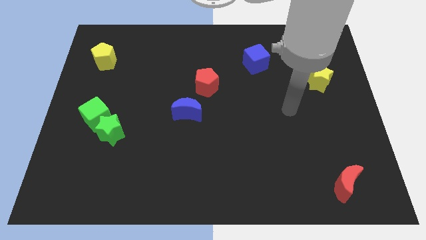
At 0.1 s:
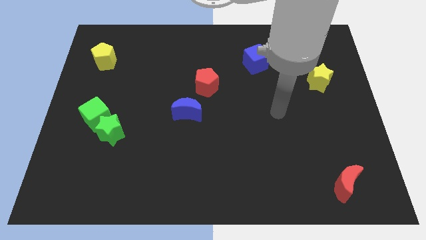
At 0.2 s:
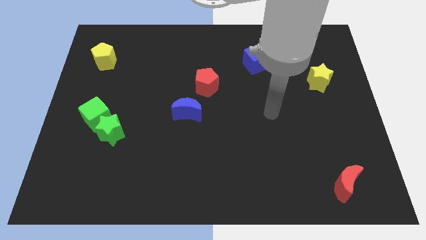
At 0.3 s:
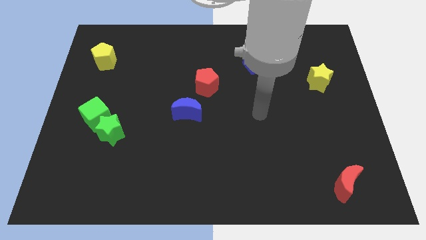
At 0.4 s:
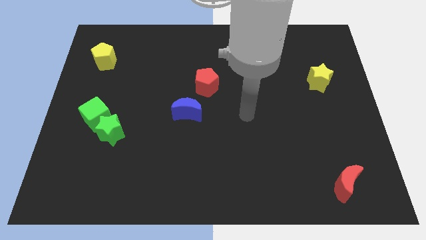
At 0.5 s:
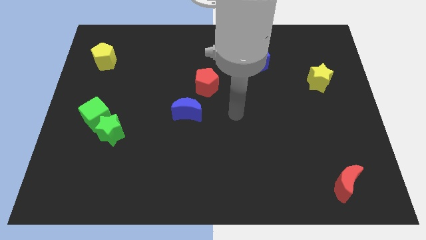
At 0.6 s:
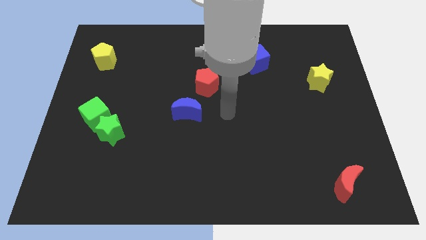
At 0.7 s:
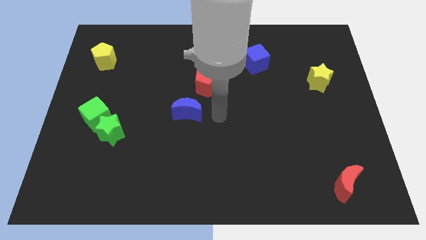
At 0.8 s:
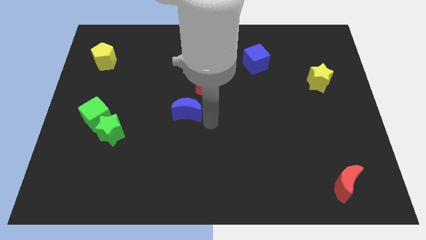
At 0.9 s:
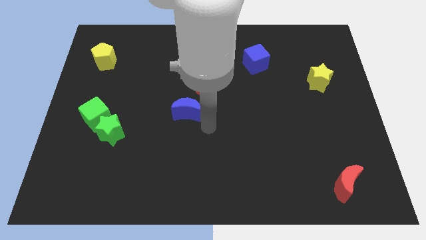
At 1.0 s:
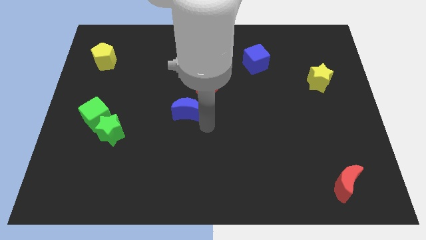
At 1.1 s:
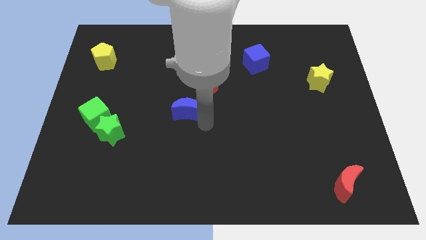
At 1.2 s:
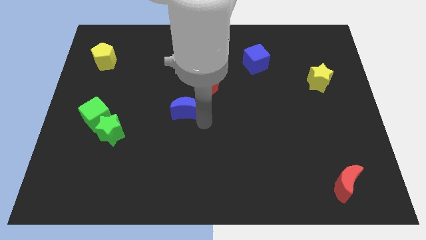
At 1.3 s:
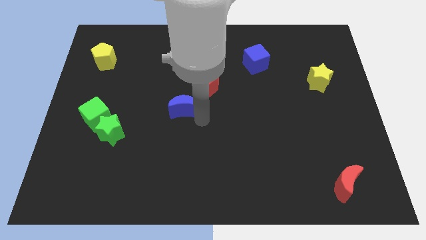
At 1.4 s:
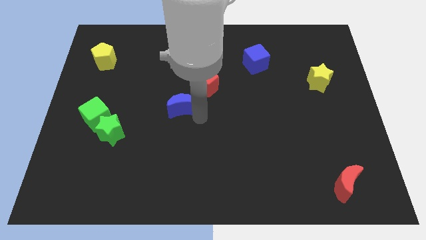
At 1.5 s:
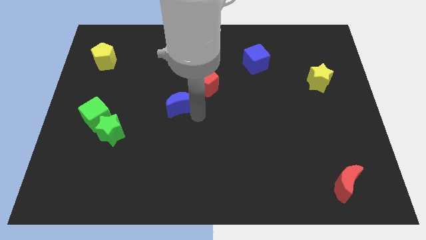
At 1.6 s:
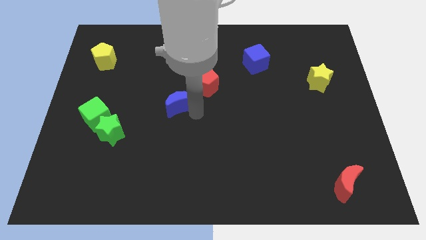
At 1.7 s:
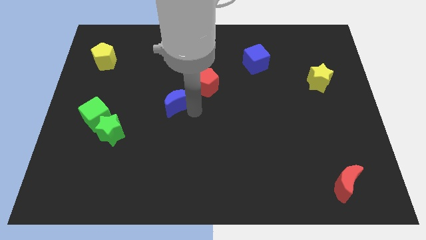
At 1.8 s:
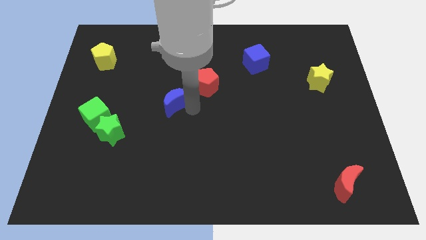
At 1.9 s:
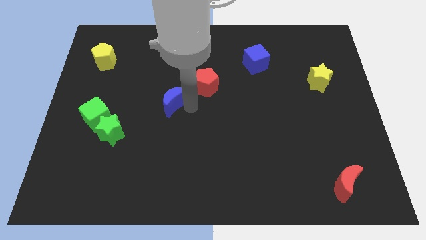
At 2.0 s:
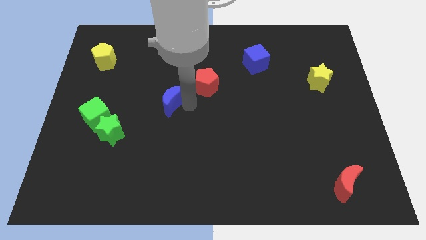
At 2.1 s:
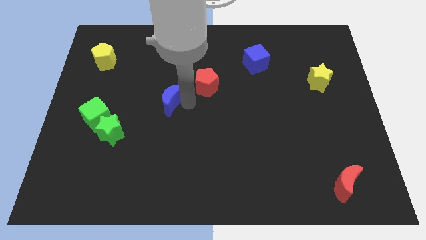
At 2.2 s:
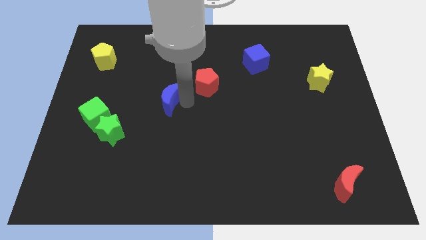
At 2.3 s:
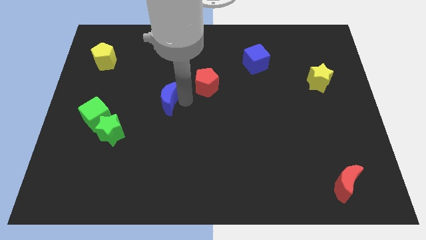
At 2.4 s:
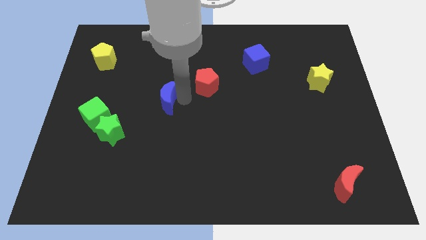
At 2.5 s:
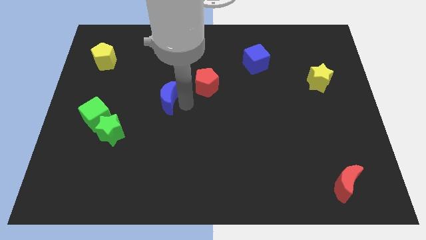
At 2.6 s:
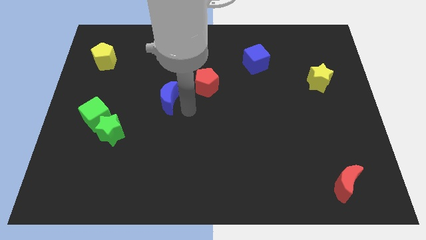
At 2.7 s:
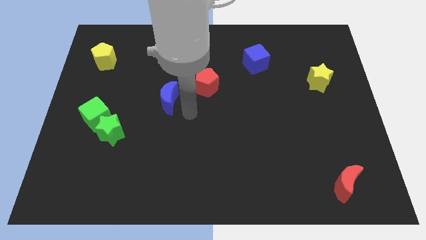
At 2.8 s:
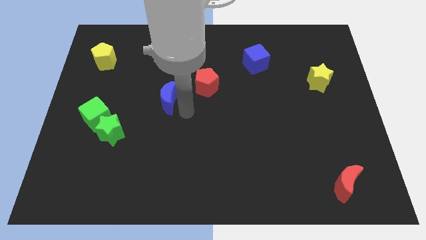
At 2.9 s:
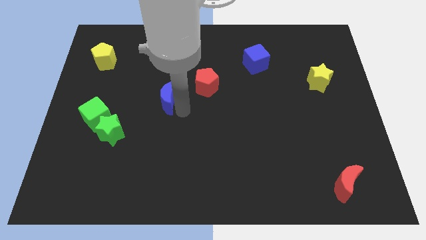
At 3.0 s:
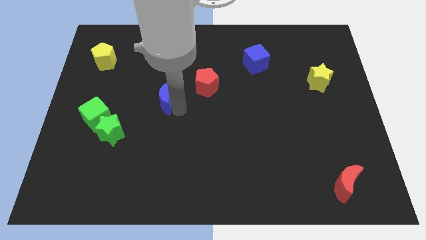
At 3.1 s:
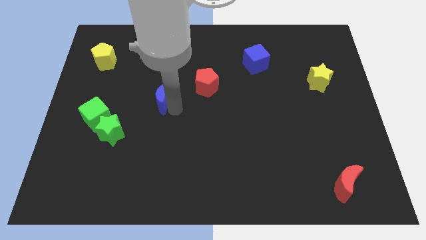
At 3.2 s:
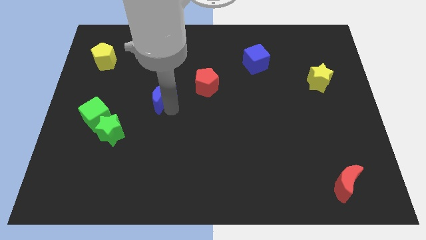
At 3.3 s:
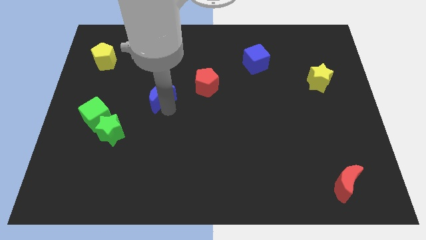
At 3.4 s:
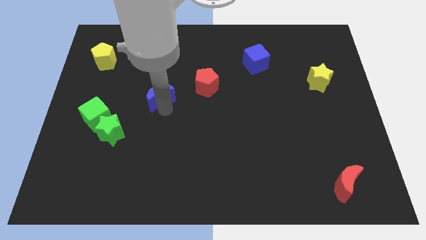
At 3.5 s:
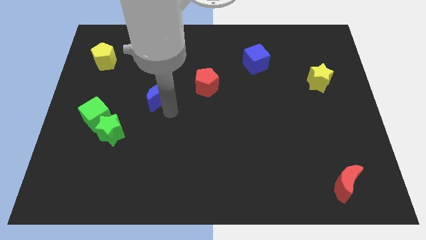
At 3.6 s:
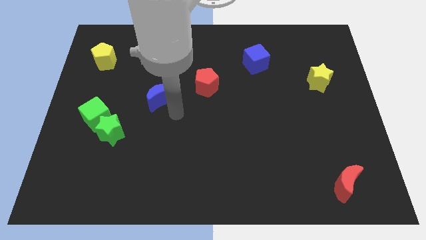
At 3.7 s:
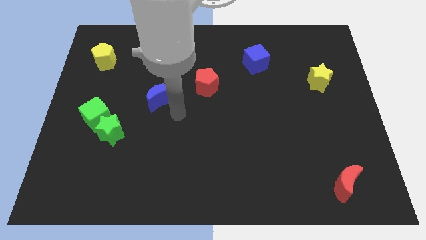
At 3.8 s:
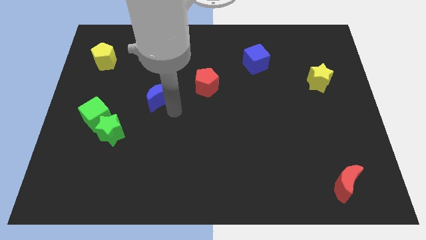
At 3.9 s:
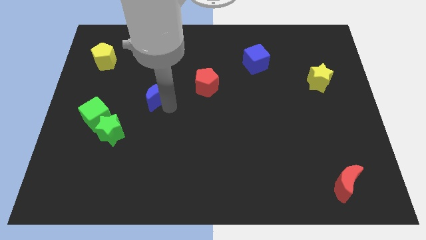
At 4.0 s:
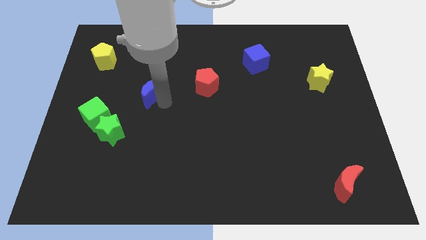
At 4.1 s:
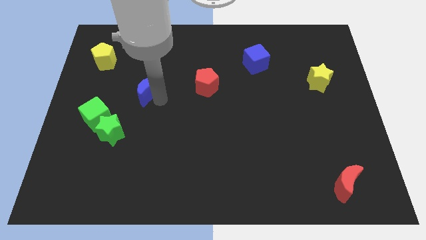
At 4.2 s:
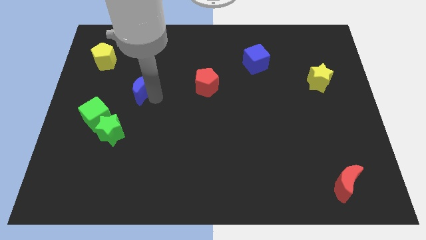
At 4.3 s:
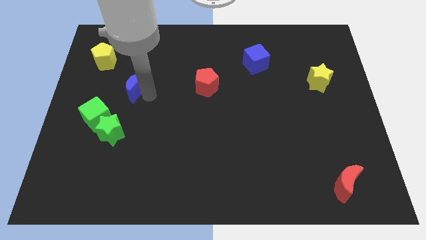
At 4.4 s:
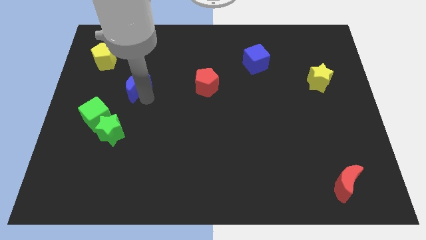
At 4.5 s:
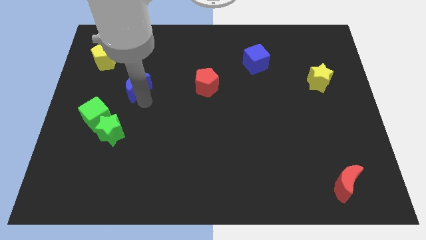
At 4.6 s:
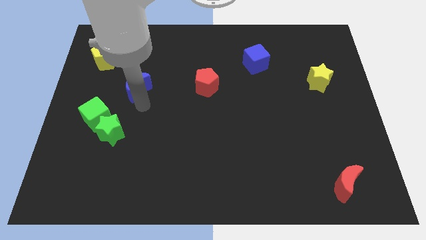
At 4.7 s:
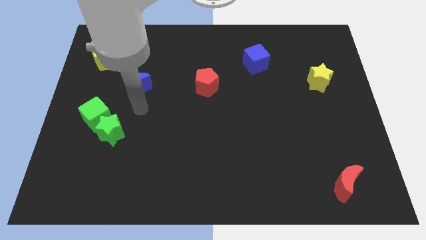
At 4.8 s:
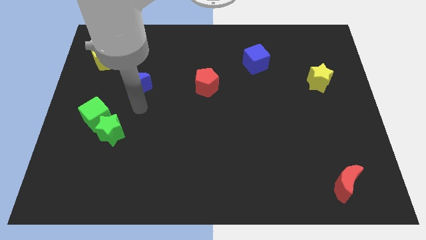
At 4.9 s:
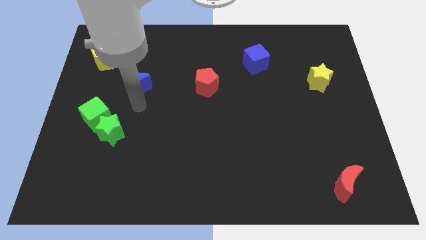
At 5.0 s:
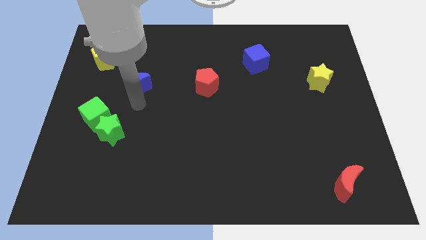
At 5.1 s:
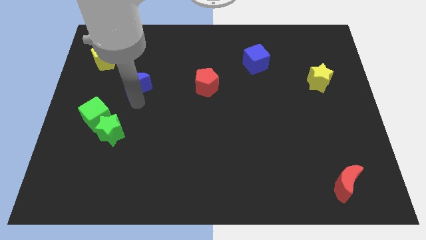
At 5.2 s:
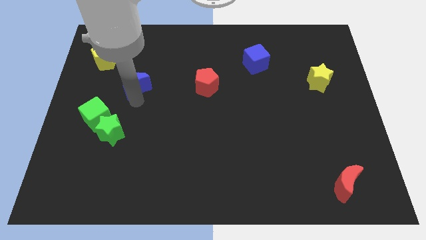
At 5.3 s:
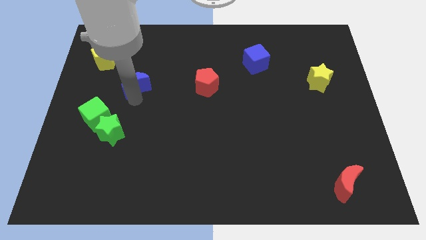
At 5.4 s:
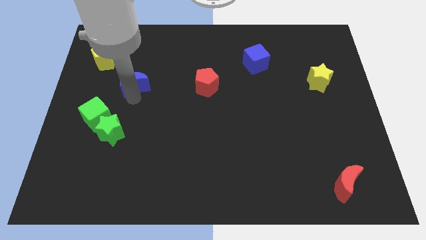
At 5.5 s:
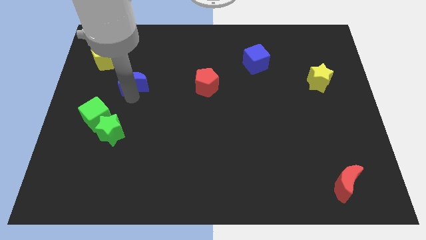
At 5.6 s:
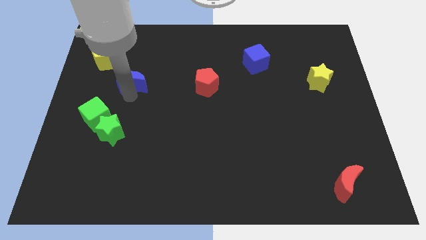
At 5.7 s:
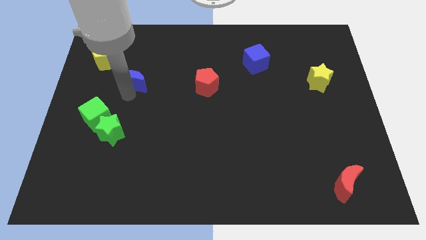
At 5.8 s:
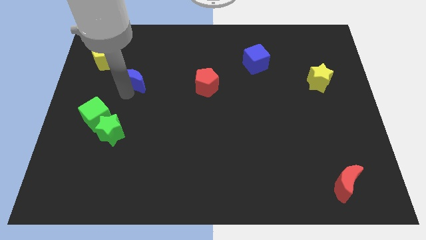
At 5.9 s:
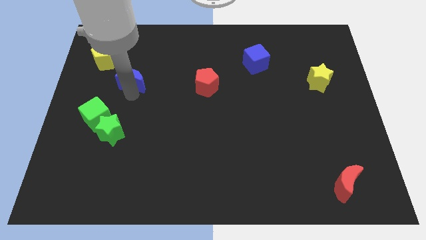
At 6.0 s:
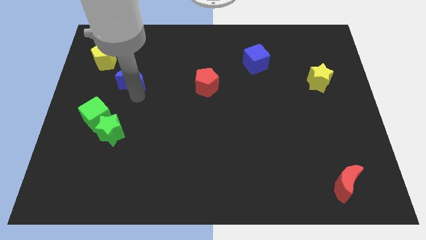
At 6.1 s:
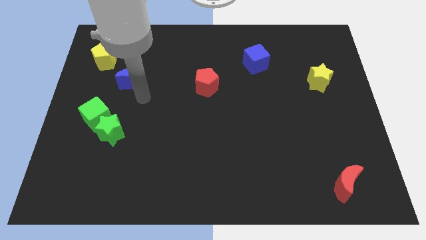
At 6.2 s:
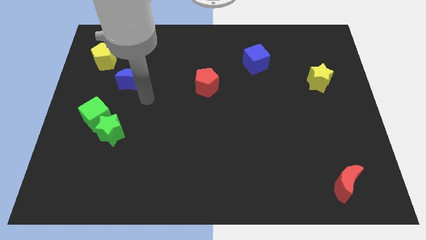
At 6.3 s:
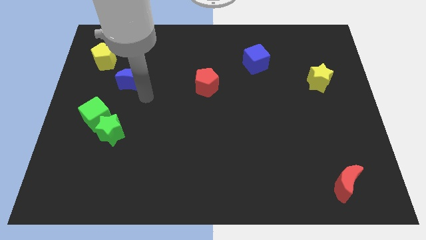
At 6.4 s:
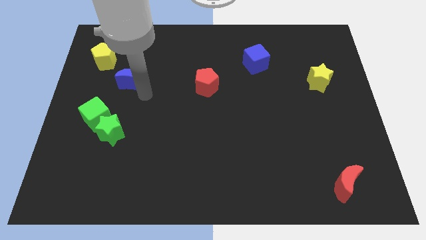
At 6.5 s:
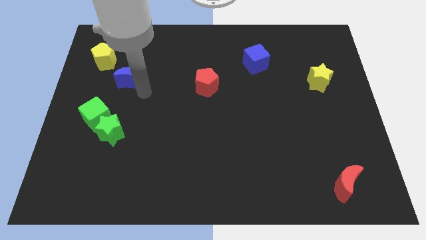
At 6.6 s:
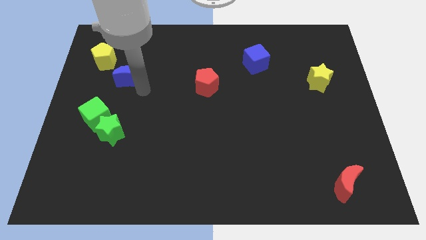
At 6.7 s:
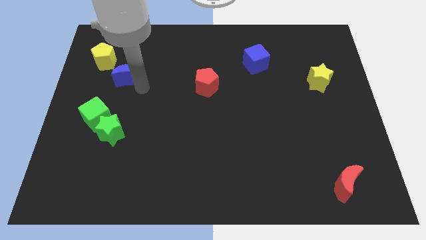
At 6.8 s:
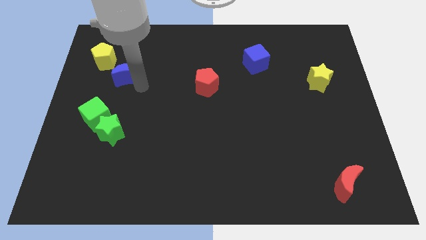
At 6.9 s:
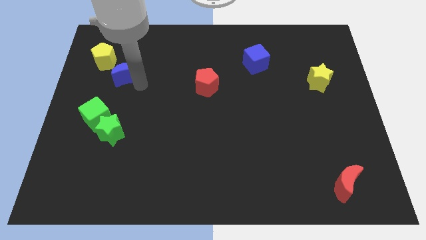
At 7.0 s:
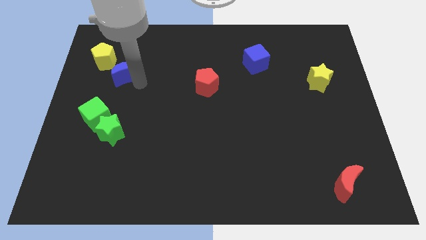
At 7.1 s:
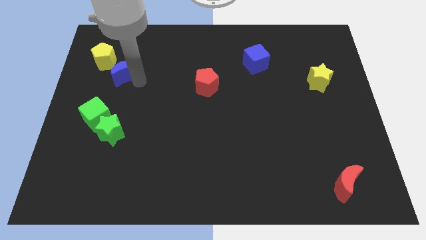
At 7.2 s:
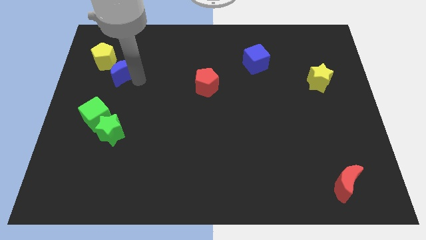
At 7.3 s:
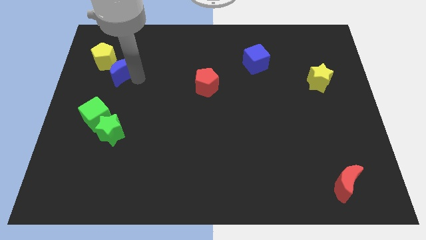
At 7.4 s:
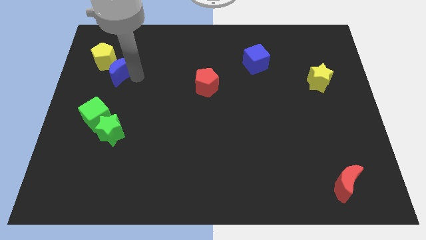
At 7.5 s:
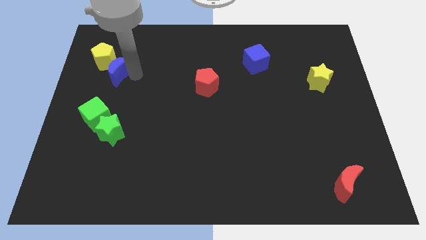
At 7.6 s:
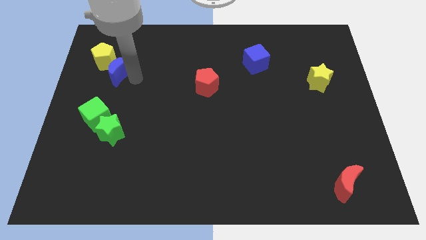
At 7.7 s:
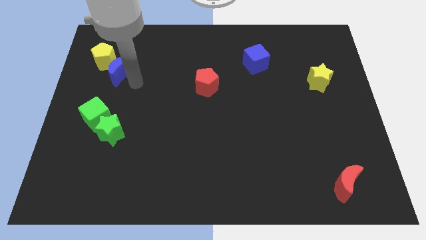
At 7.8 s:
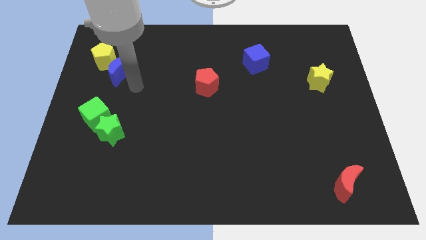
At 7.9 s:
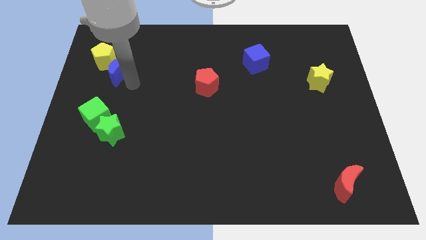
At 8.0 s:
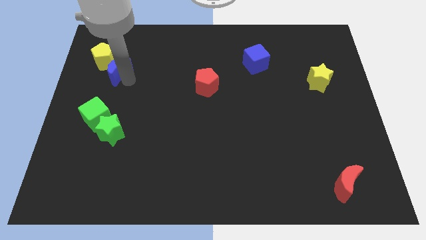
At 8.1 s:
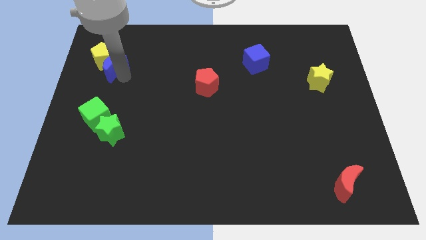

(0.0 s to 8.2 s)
push the blue moon towards the yellow pentagon
